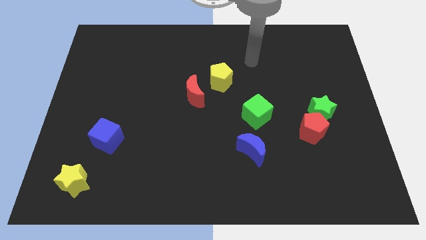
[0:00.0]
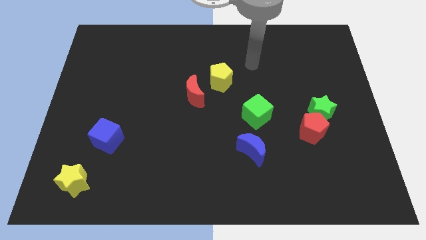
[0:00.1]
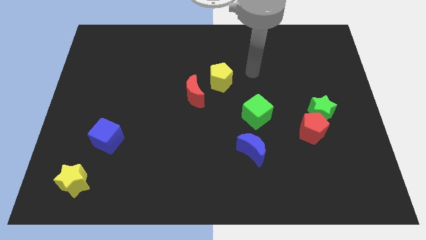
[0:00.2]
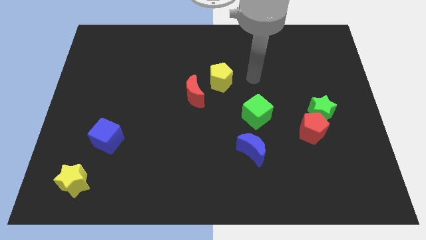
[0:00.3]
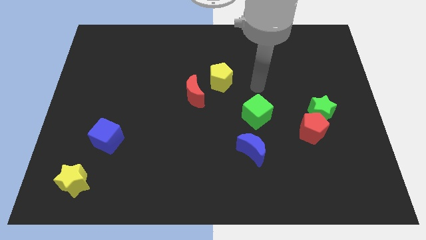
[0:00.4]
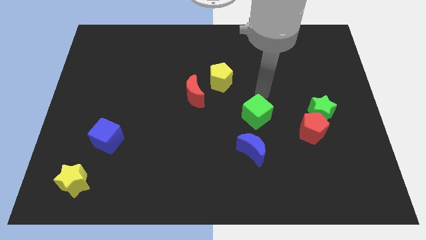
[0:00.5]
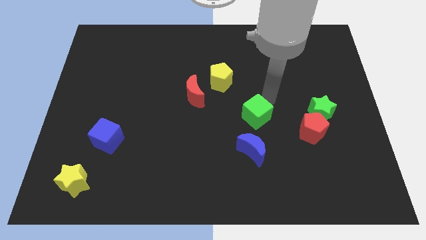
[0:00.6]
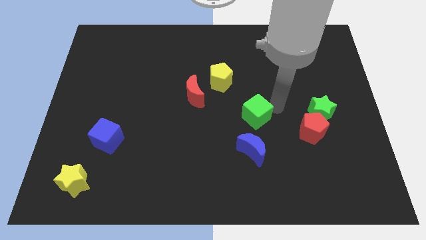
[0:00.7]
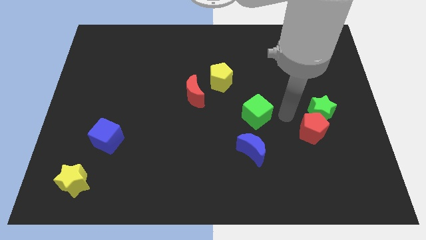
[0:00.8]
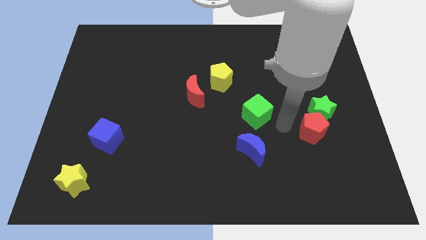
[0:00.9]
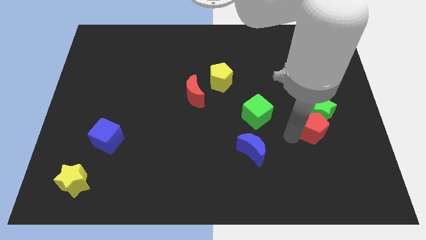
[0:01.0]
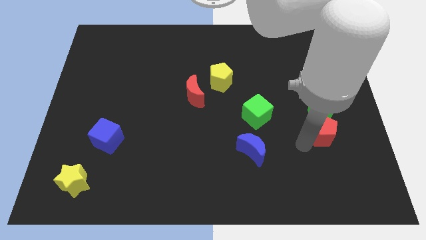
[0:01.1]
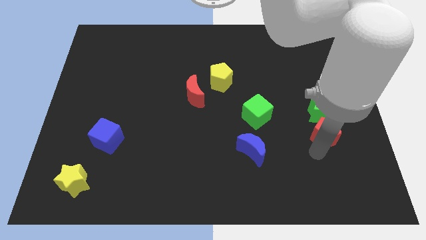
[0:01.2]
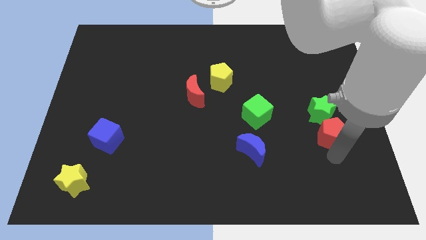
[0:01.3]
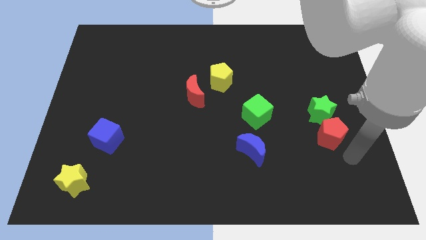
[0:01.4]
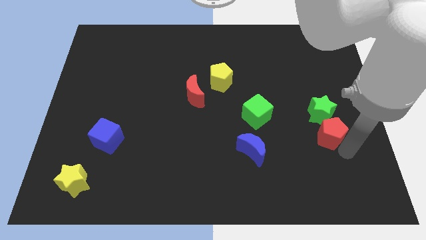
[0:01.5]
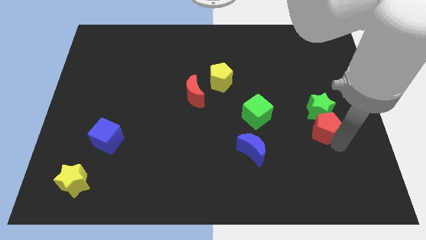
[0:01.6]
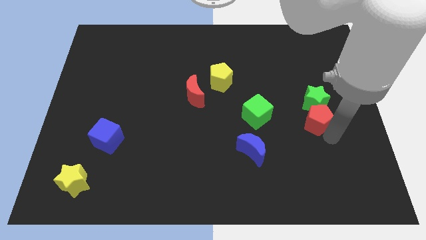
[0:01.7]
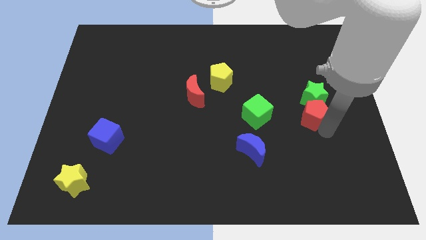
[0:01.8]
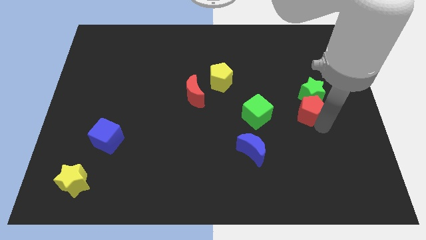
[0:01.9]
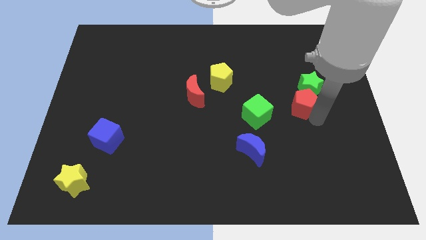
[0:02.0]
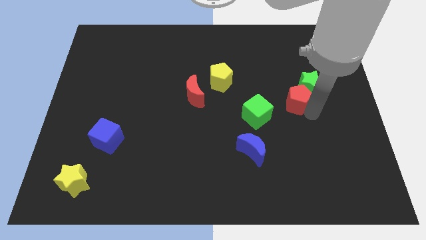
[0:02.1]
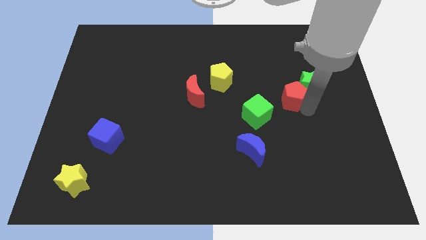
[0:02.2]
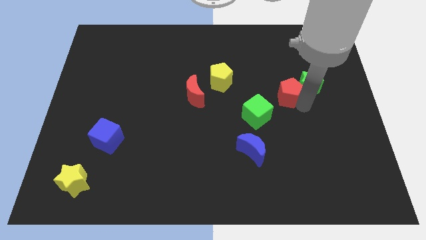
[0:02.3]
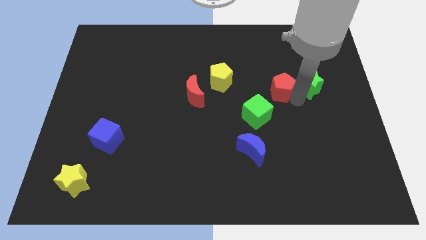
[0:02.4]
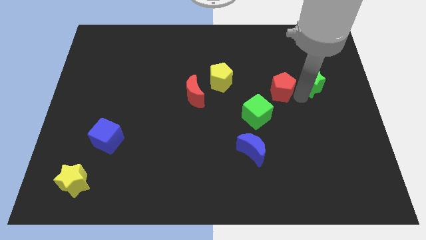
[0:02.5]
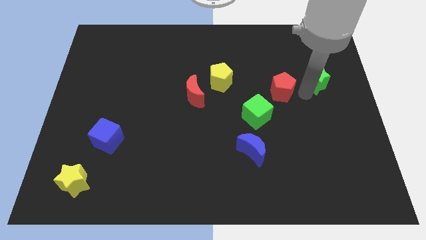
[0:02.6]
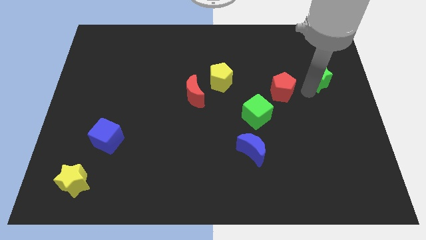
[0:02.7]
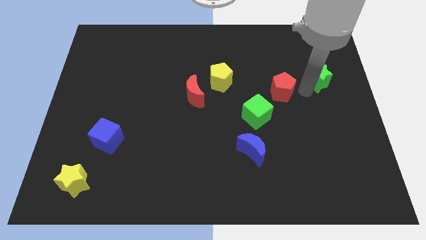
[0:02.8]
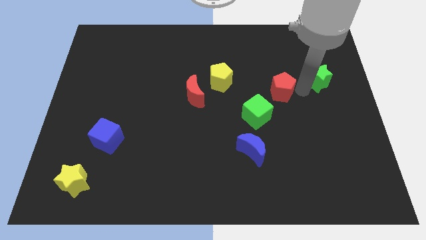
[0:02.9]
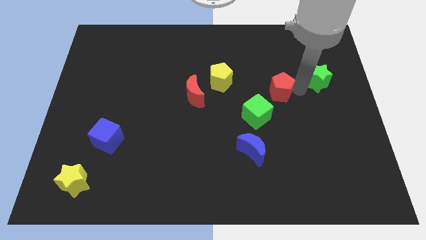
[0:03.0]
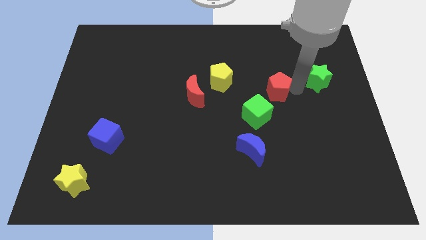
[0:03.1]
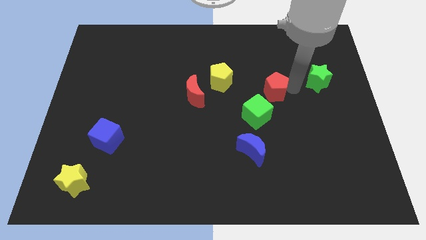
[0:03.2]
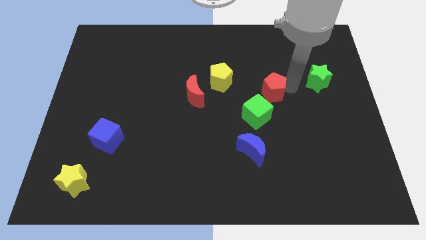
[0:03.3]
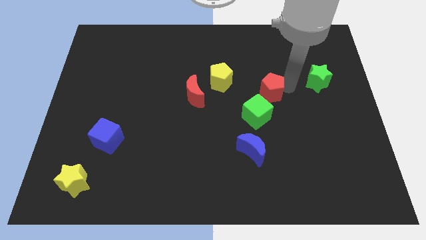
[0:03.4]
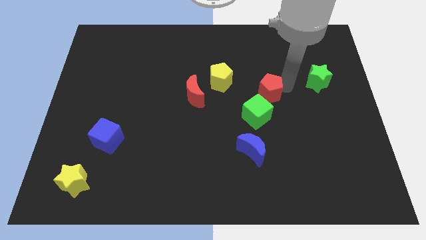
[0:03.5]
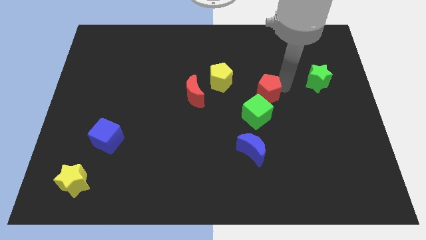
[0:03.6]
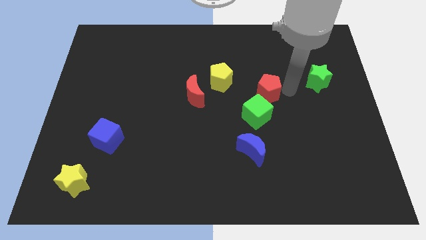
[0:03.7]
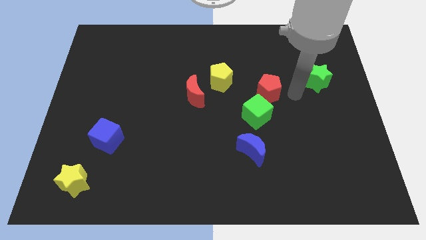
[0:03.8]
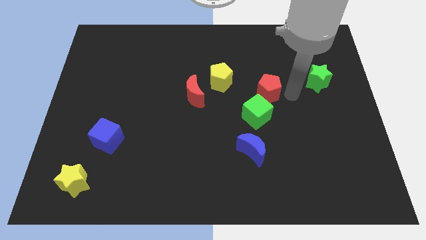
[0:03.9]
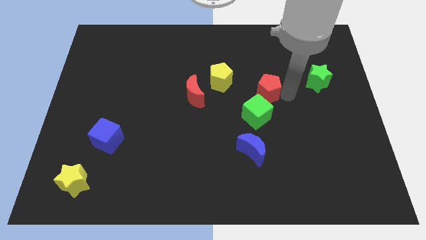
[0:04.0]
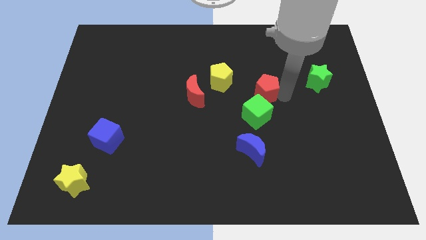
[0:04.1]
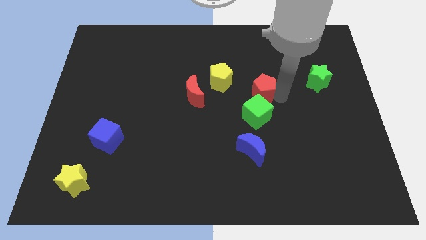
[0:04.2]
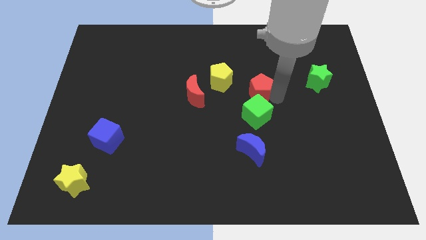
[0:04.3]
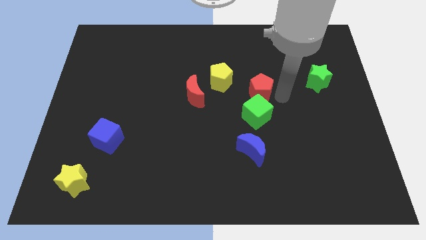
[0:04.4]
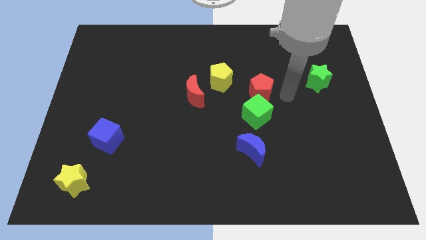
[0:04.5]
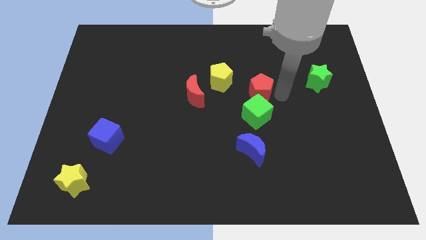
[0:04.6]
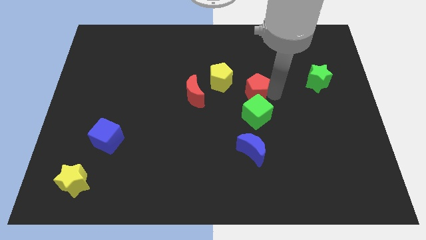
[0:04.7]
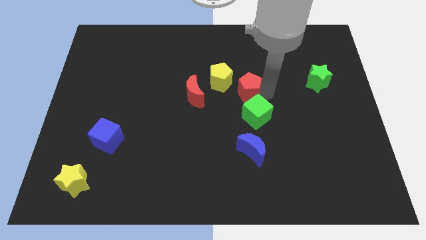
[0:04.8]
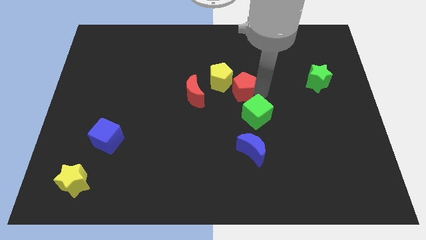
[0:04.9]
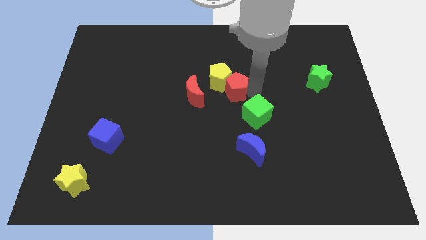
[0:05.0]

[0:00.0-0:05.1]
push the red pentagon towards the yellow pentagon

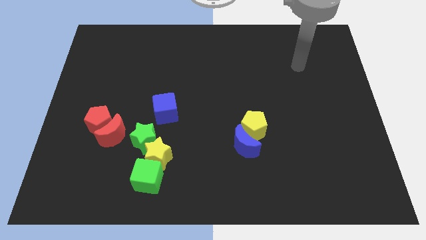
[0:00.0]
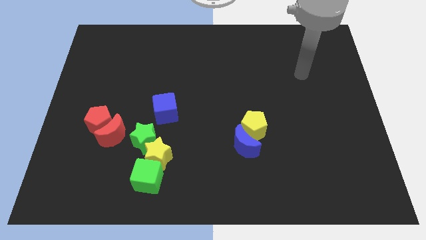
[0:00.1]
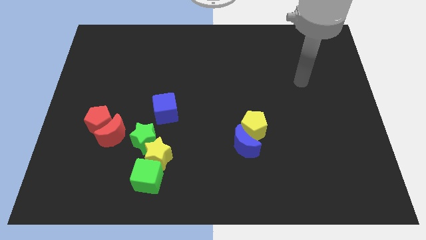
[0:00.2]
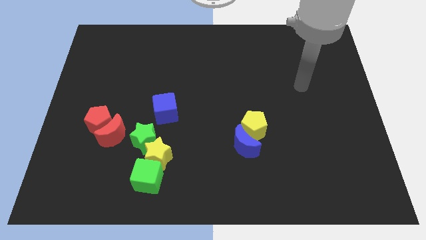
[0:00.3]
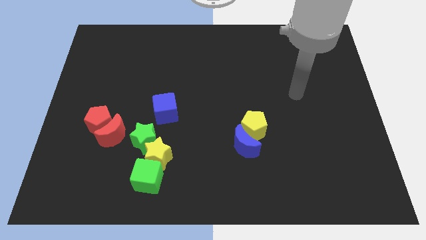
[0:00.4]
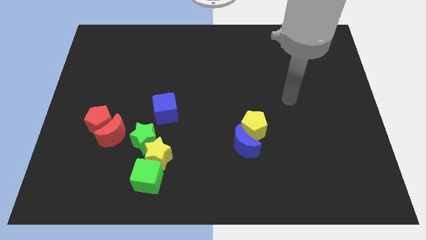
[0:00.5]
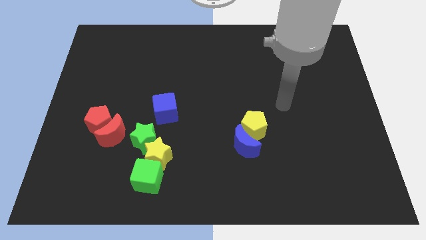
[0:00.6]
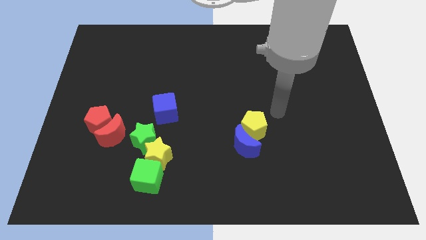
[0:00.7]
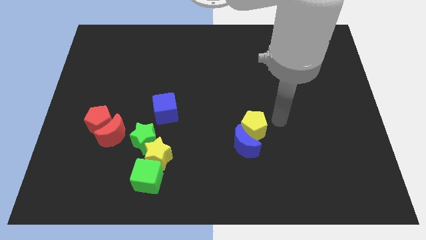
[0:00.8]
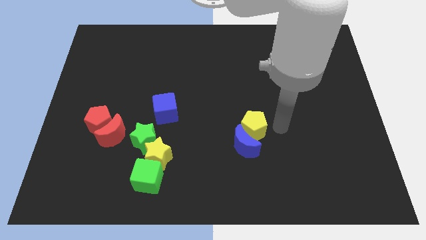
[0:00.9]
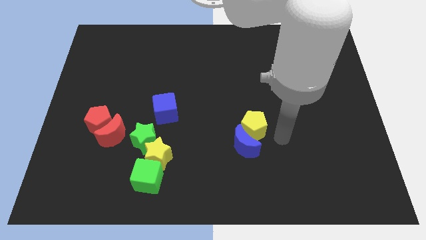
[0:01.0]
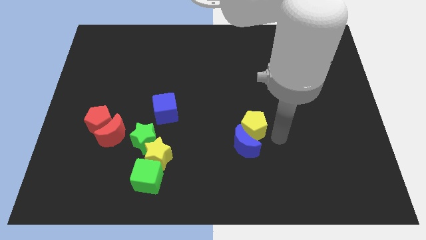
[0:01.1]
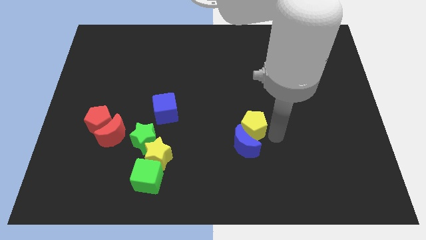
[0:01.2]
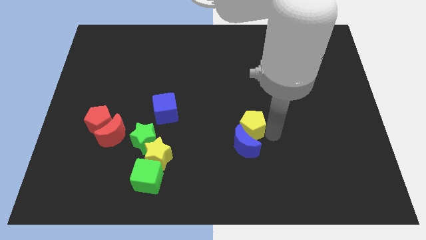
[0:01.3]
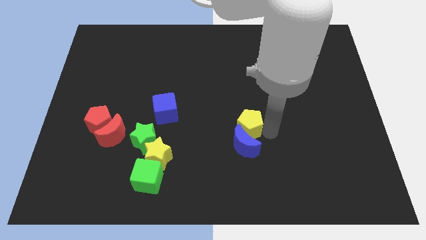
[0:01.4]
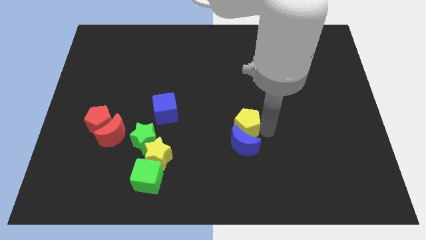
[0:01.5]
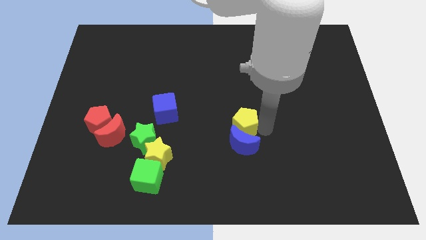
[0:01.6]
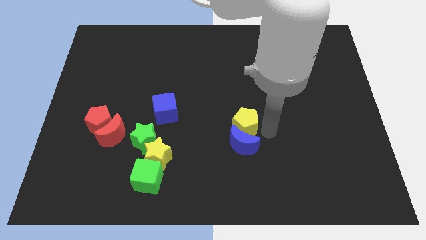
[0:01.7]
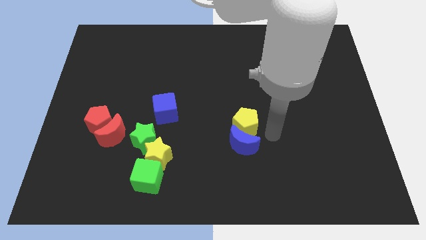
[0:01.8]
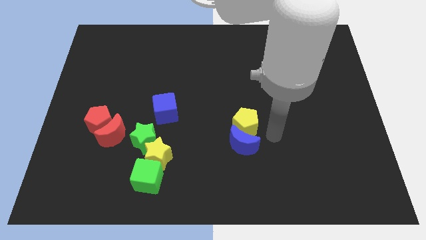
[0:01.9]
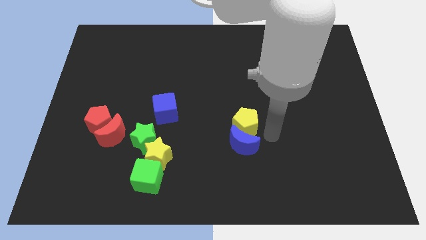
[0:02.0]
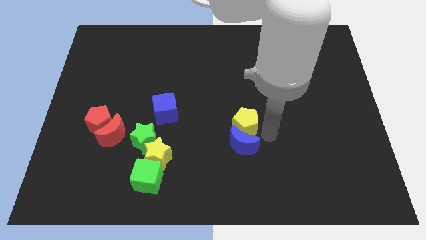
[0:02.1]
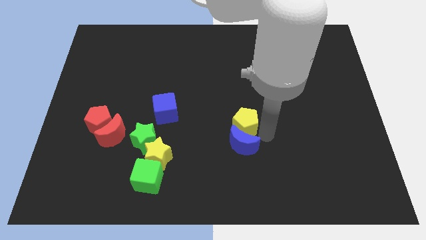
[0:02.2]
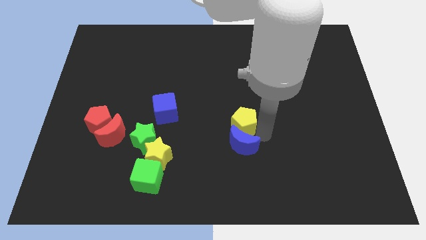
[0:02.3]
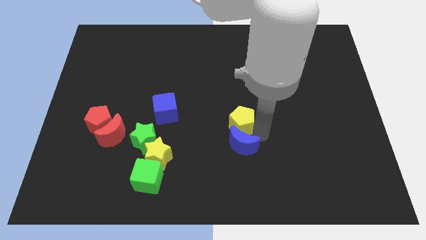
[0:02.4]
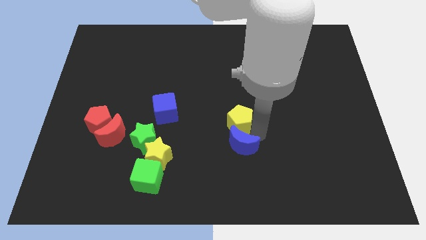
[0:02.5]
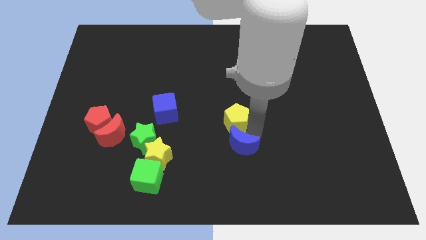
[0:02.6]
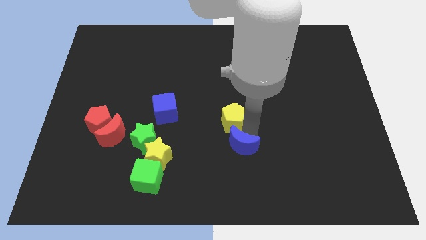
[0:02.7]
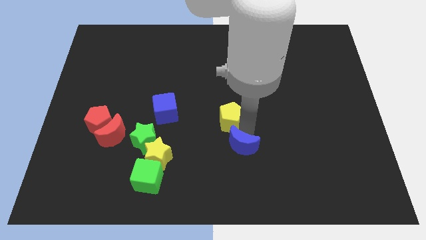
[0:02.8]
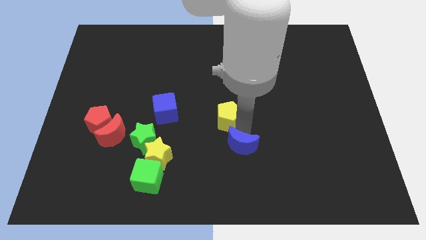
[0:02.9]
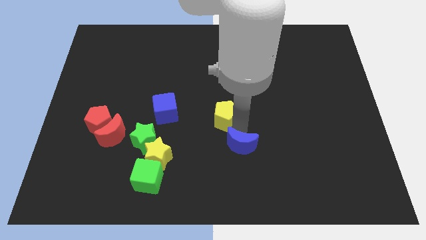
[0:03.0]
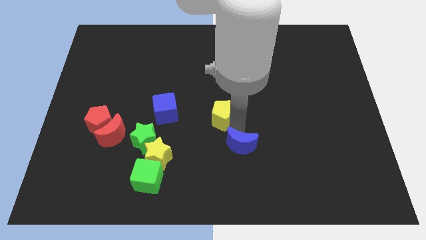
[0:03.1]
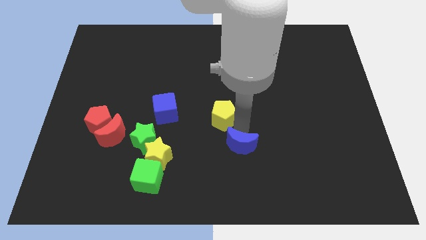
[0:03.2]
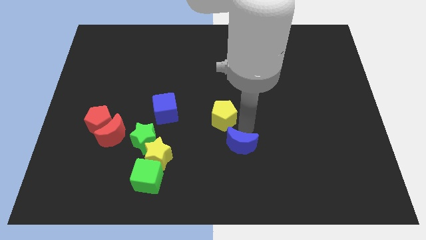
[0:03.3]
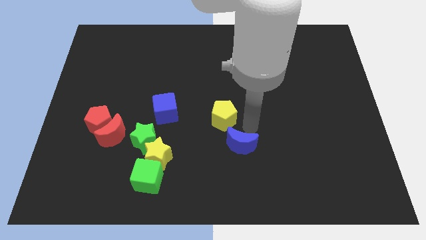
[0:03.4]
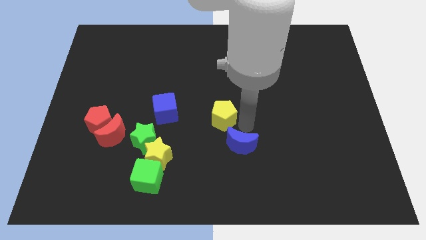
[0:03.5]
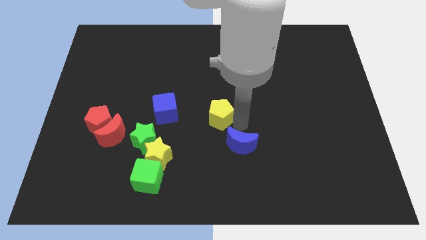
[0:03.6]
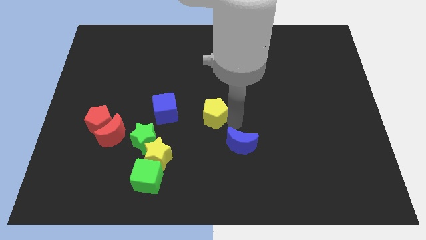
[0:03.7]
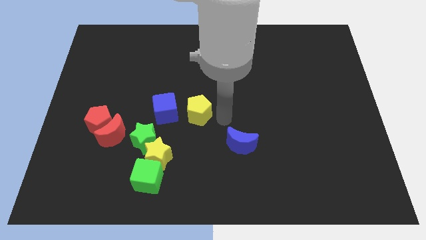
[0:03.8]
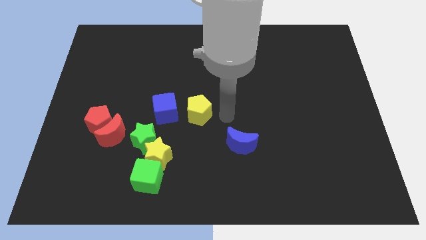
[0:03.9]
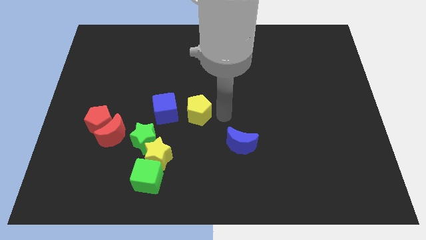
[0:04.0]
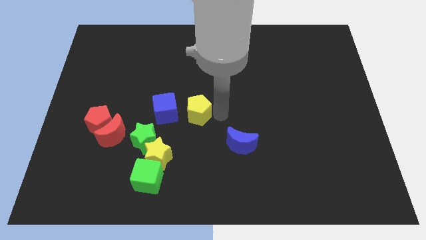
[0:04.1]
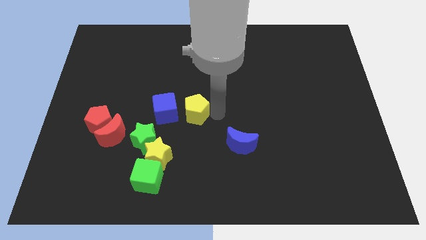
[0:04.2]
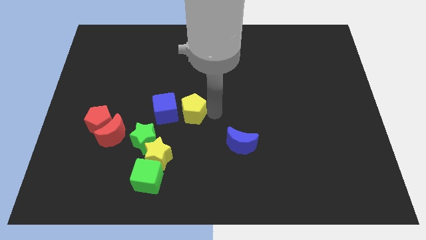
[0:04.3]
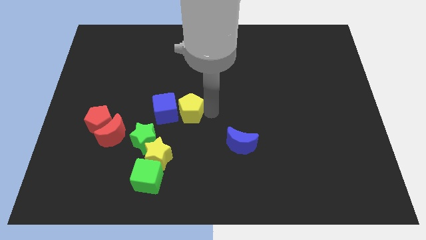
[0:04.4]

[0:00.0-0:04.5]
push the yellow pentagon close to the blue cube
